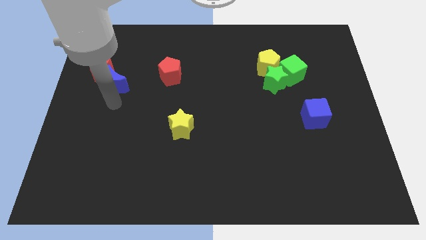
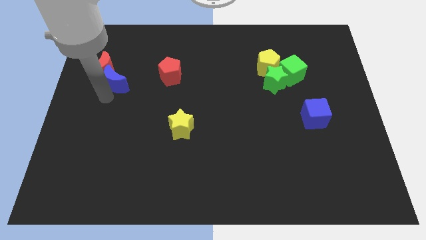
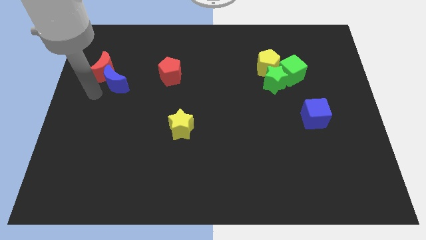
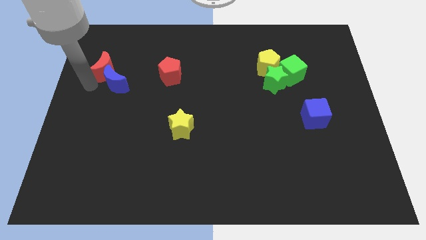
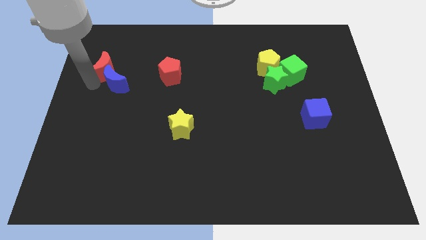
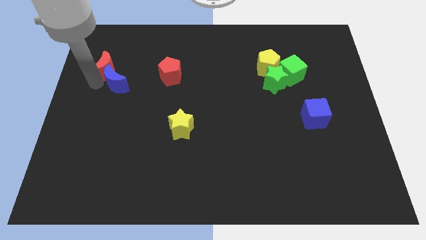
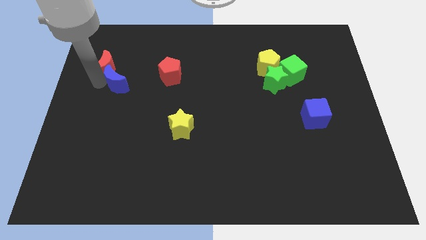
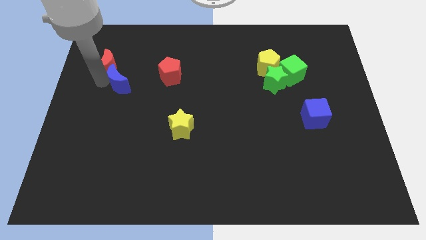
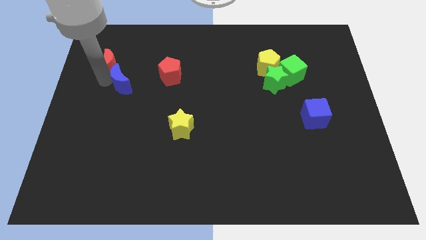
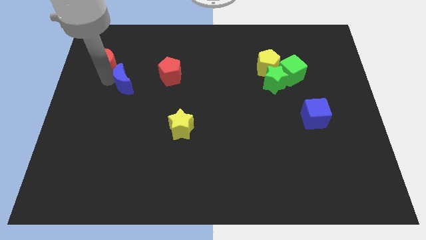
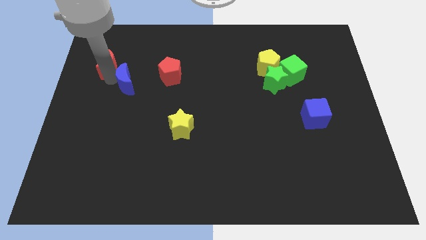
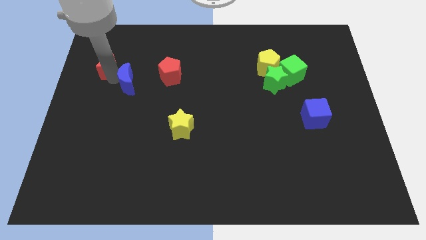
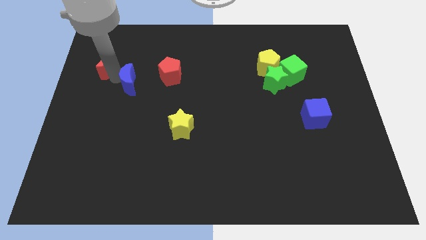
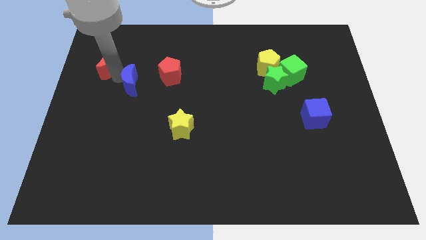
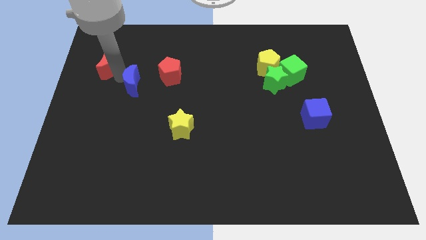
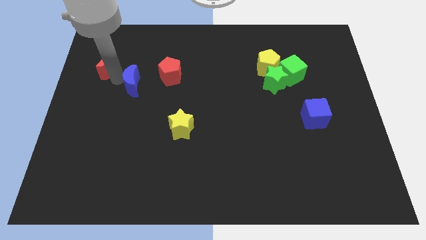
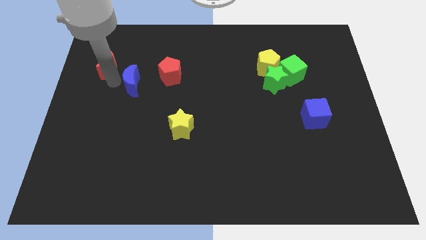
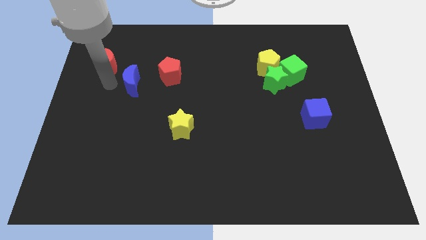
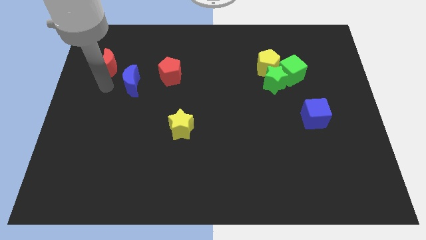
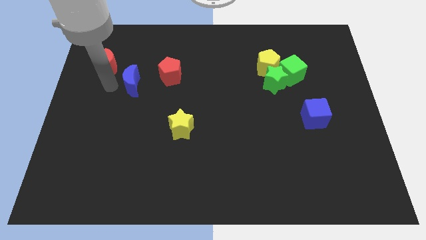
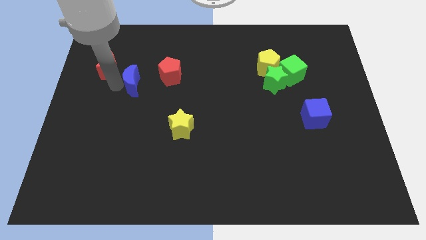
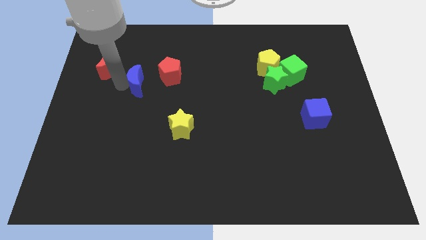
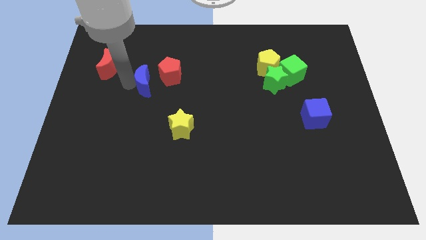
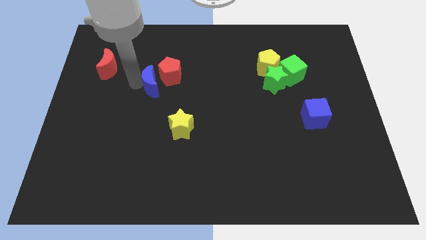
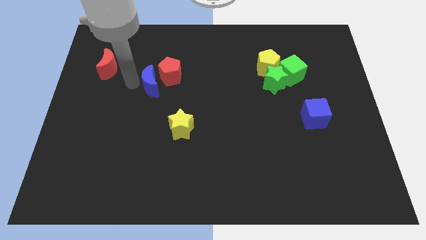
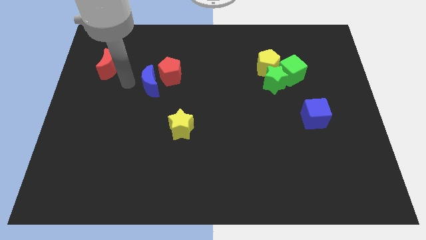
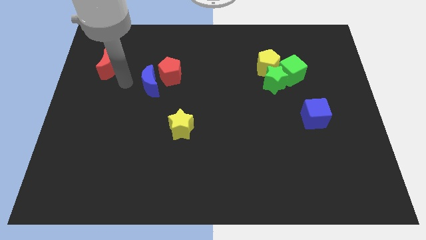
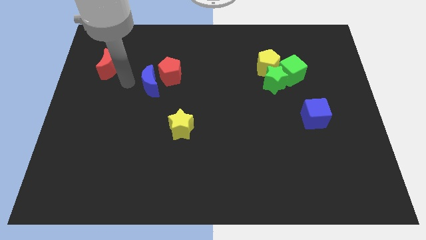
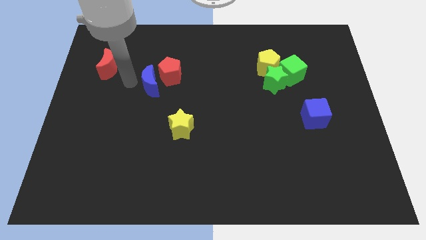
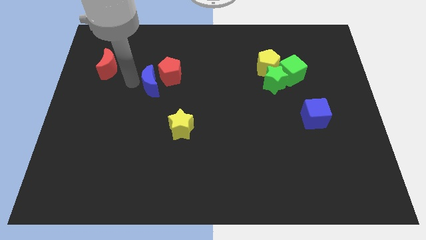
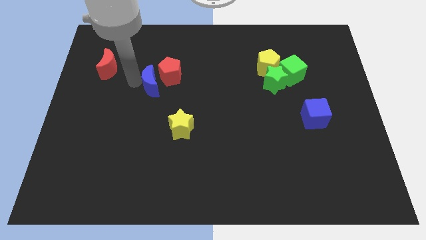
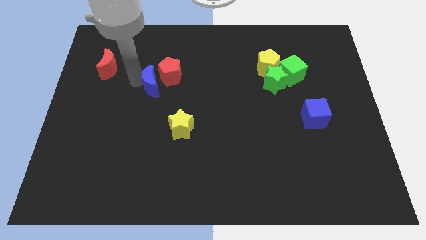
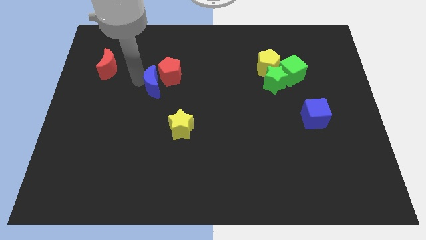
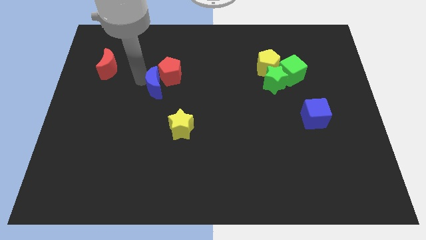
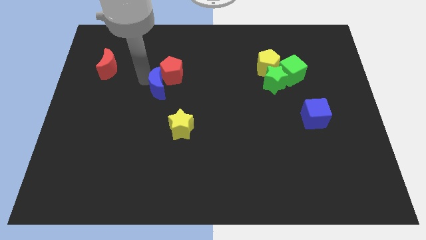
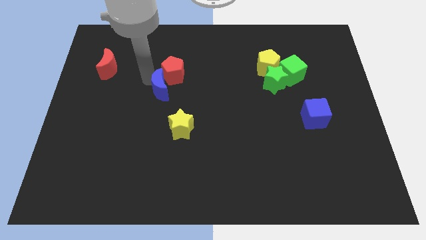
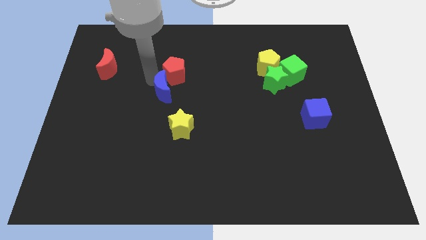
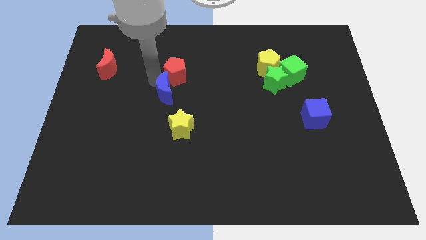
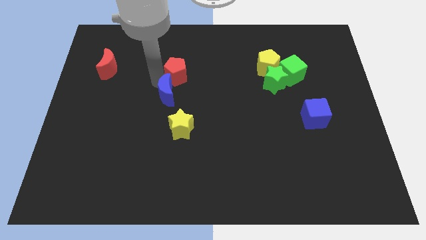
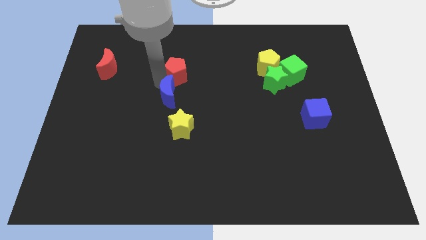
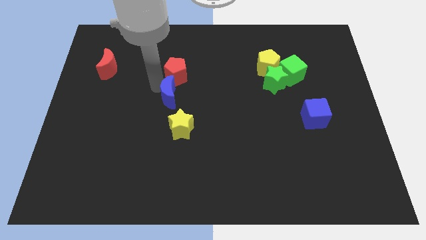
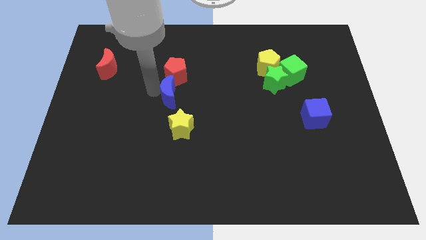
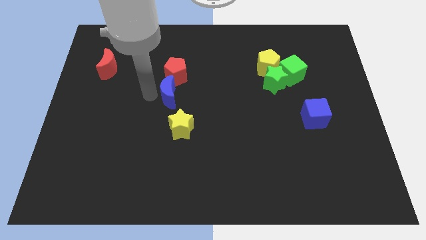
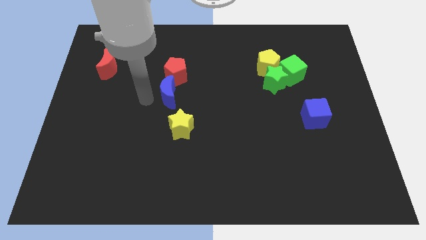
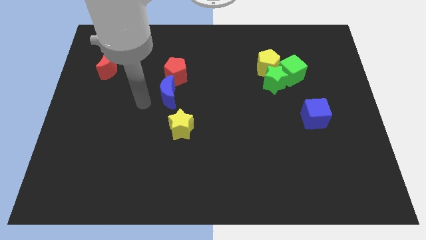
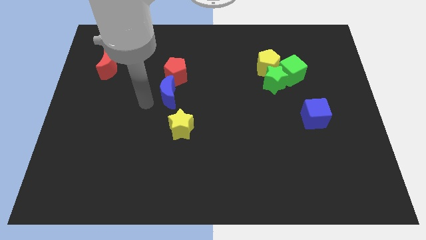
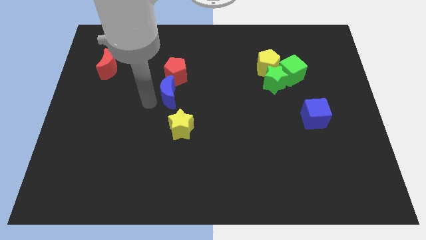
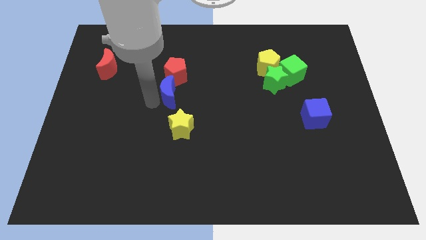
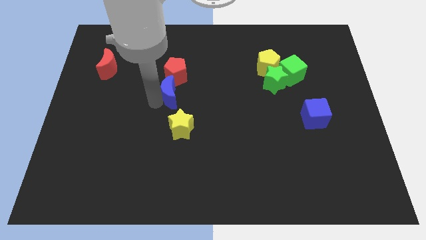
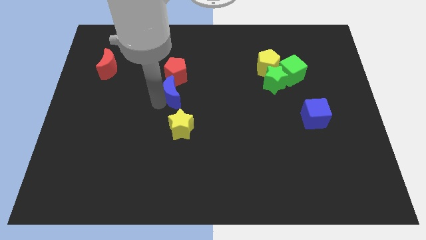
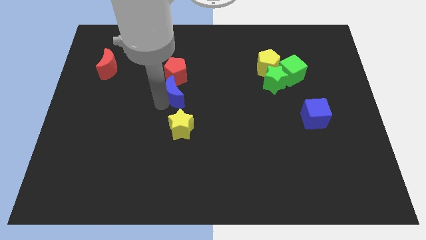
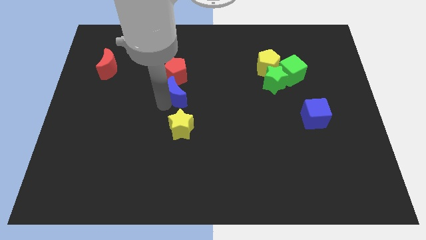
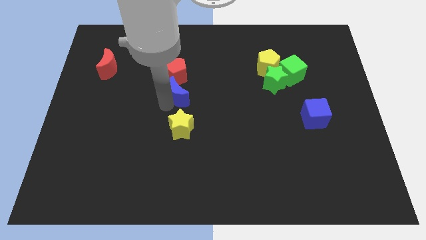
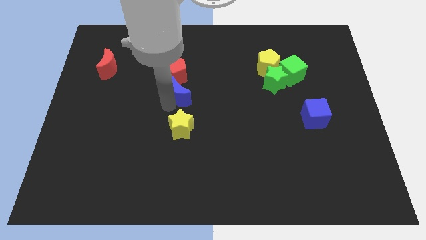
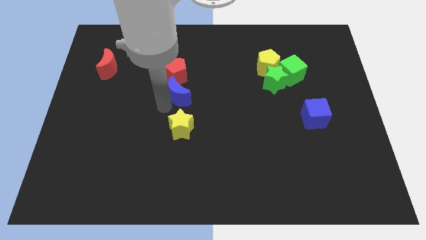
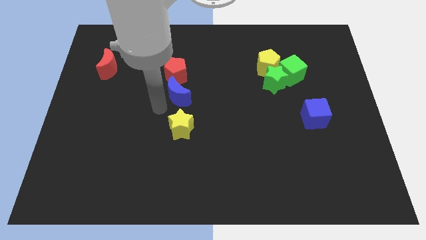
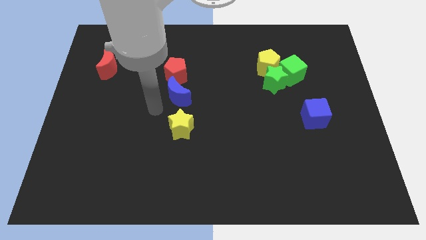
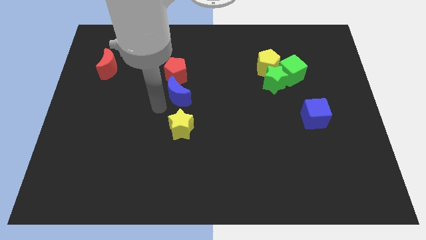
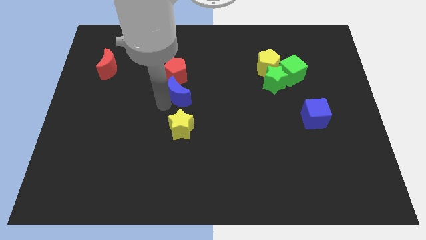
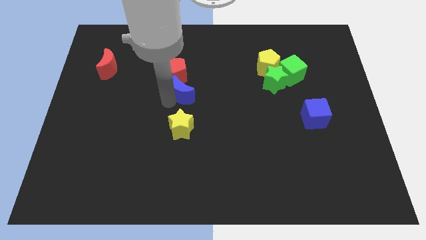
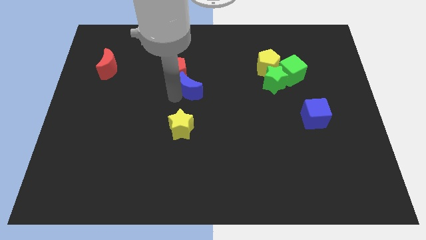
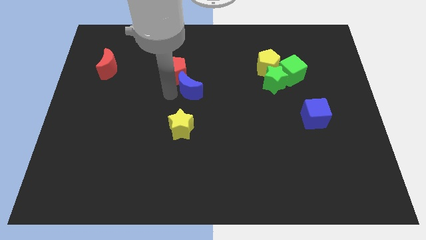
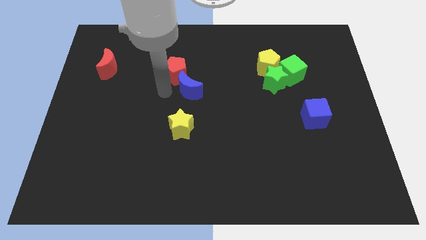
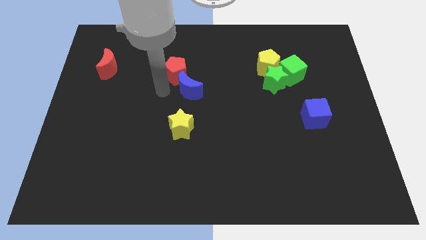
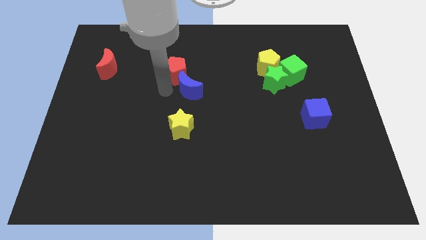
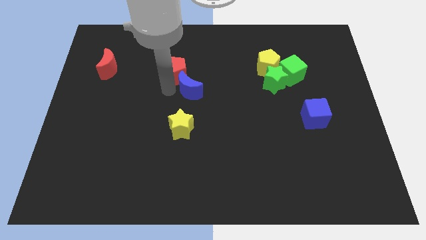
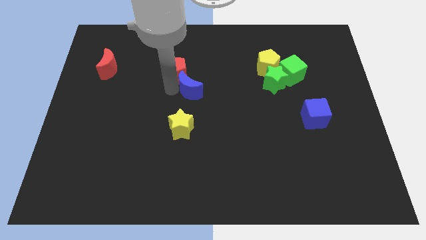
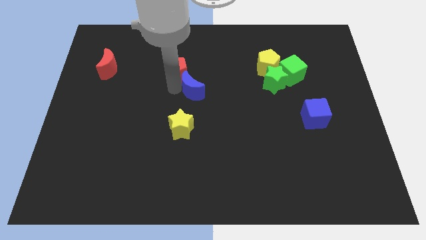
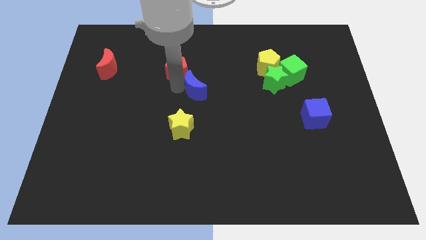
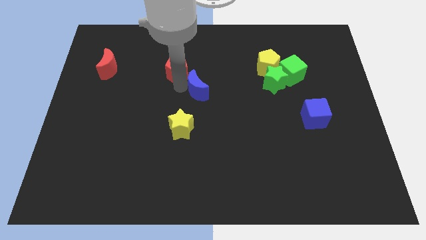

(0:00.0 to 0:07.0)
slide the blue moon to the right

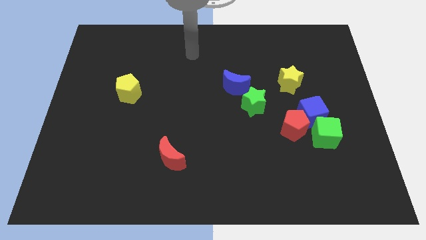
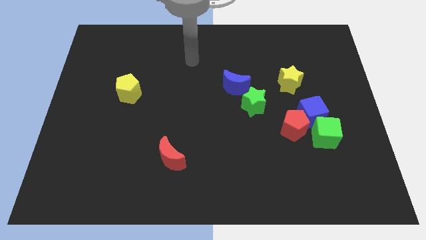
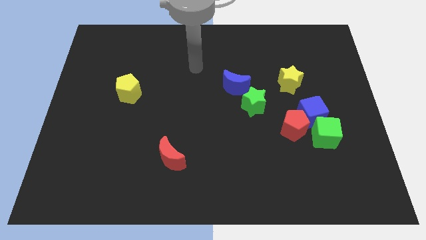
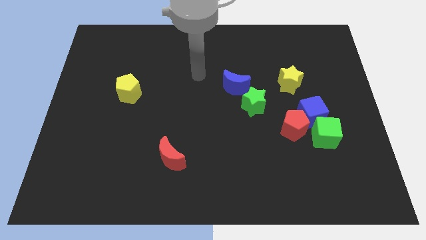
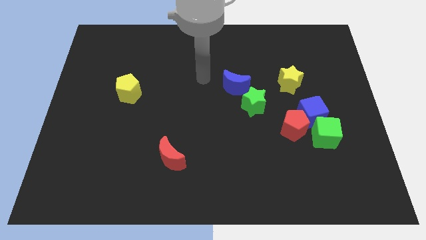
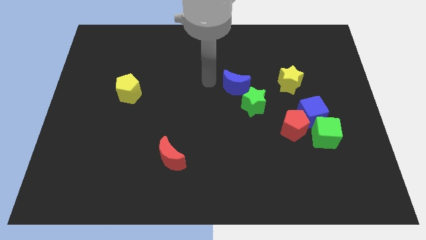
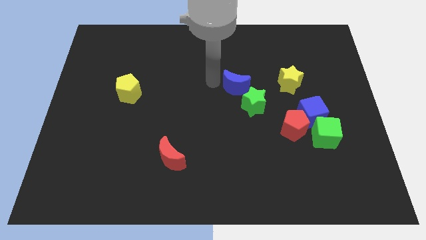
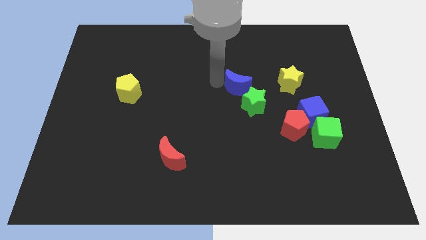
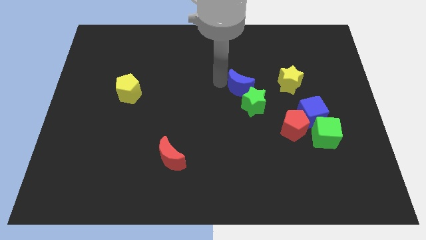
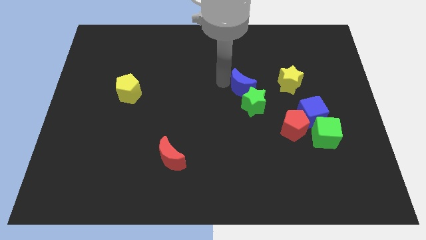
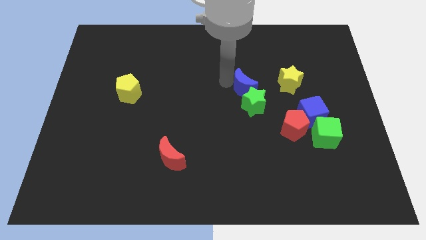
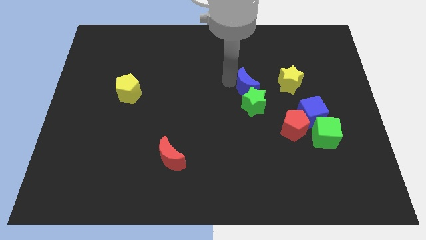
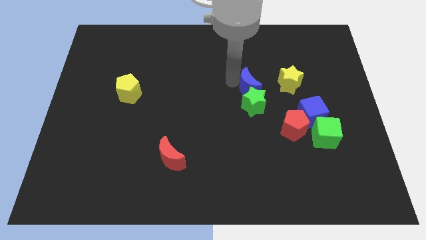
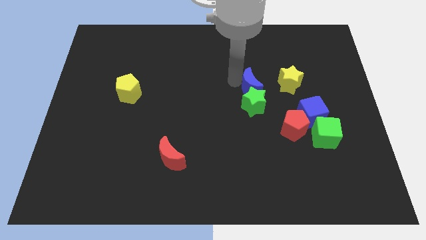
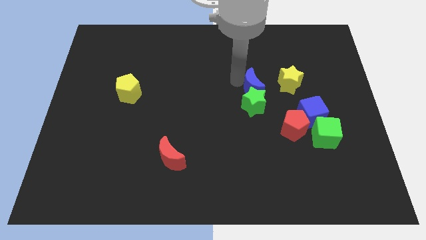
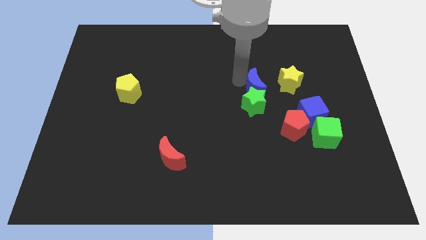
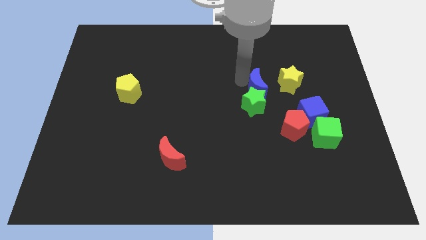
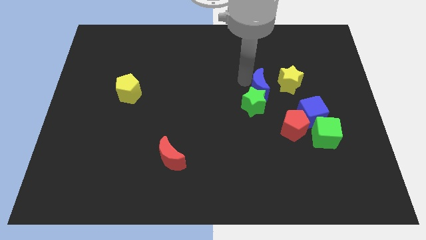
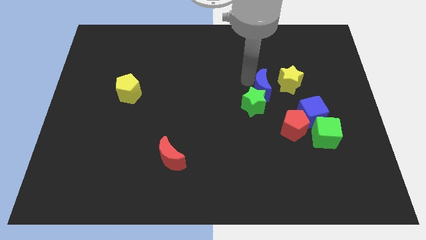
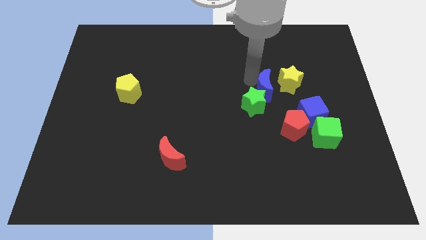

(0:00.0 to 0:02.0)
push the blue moon a little right
